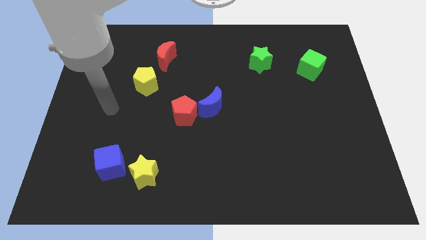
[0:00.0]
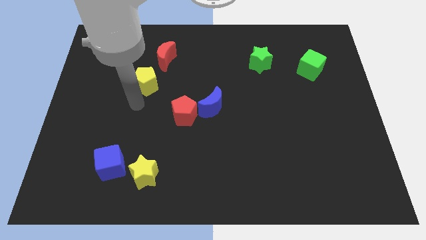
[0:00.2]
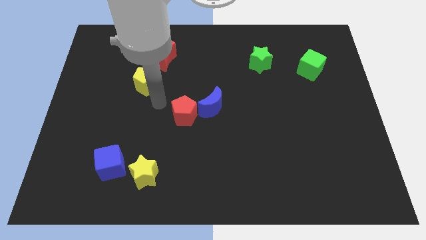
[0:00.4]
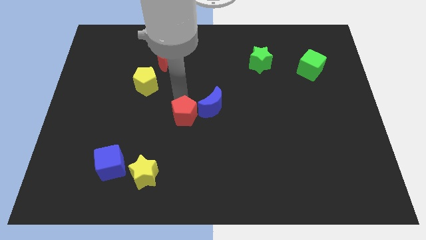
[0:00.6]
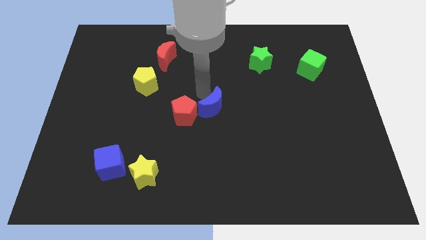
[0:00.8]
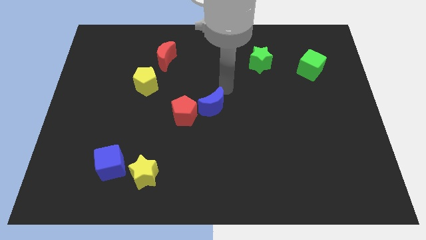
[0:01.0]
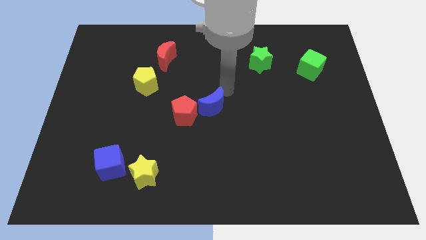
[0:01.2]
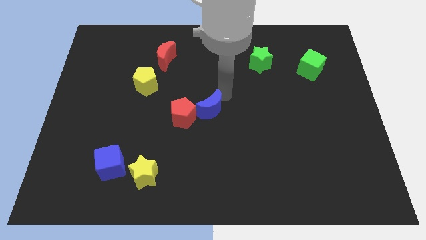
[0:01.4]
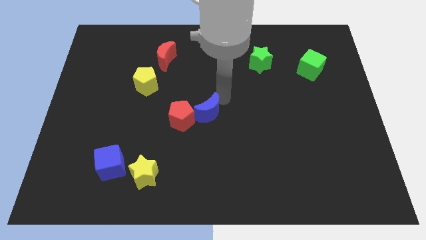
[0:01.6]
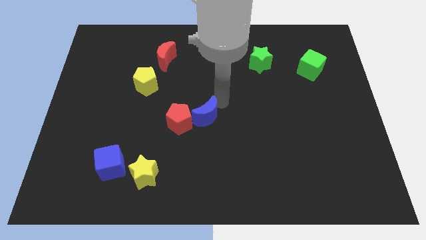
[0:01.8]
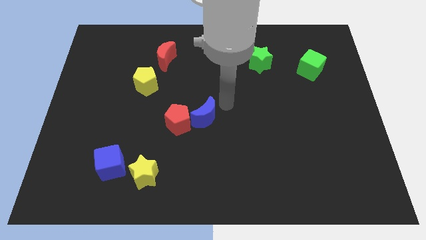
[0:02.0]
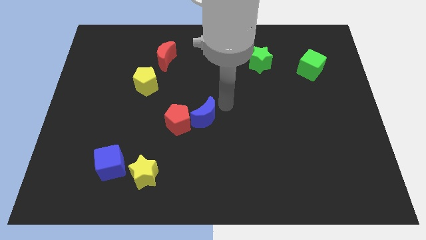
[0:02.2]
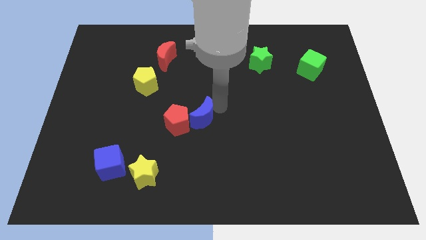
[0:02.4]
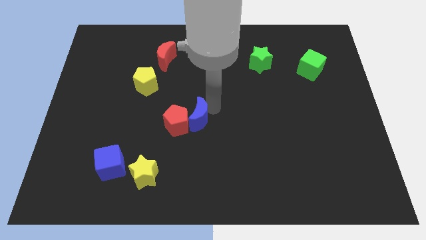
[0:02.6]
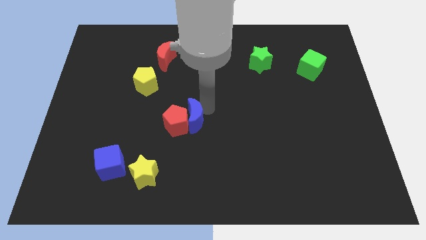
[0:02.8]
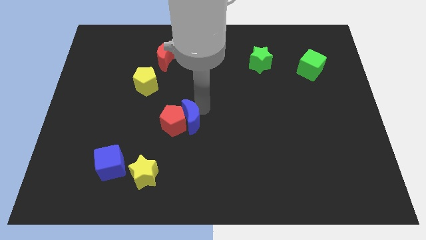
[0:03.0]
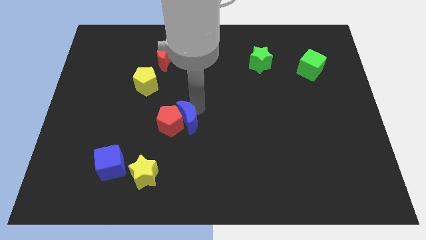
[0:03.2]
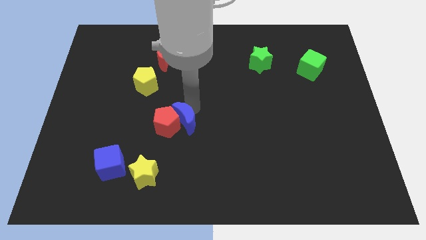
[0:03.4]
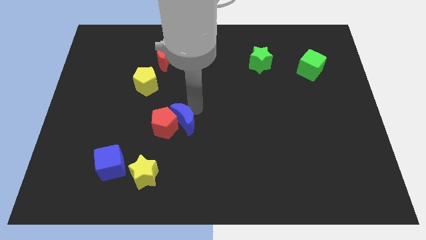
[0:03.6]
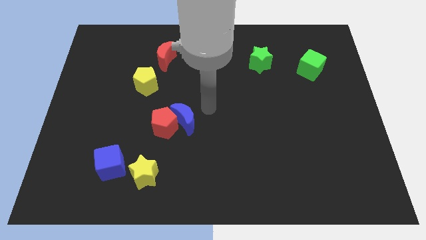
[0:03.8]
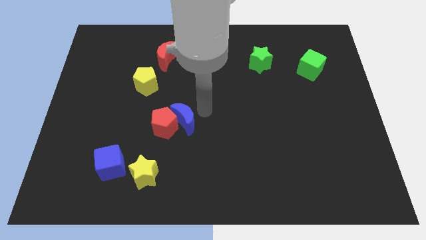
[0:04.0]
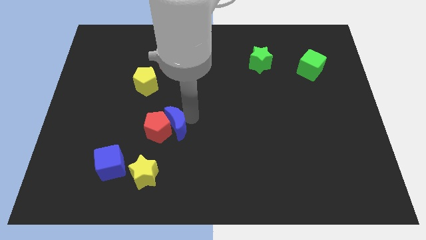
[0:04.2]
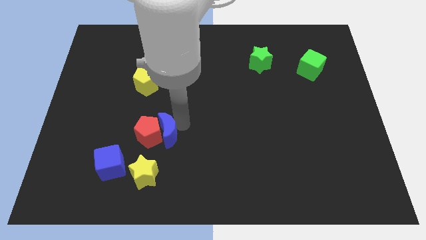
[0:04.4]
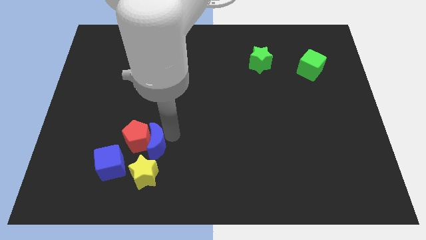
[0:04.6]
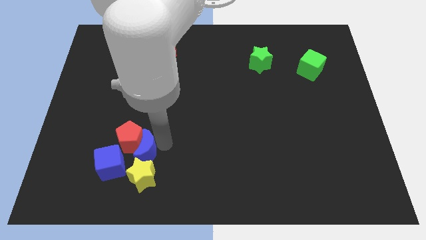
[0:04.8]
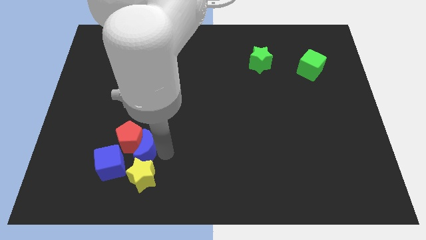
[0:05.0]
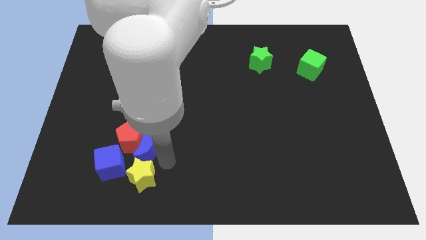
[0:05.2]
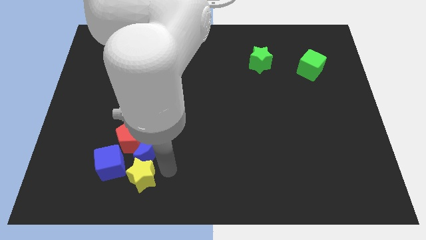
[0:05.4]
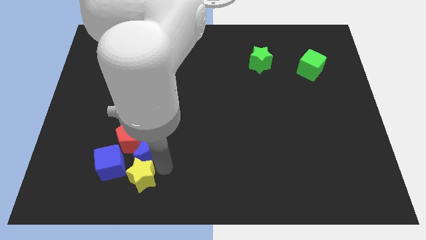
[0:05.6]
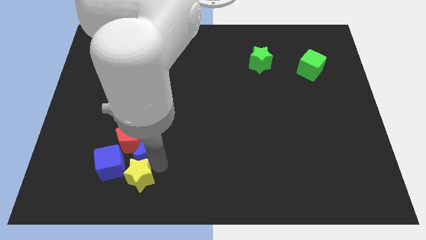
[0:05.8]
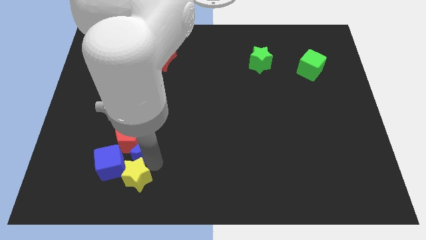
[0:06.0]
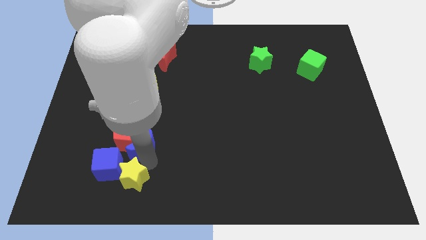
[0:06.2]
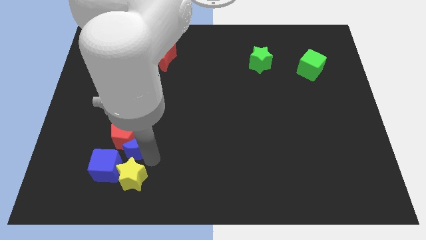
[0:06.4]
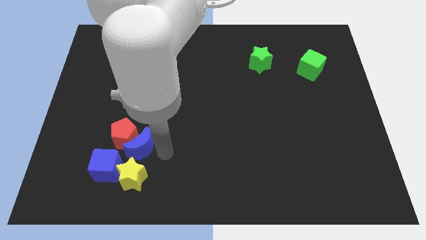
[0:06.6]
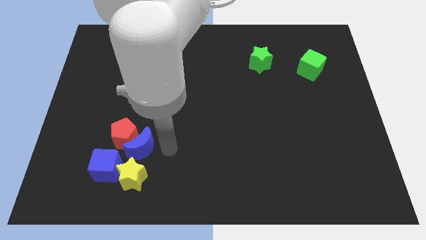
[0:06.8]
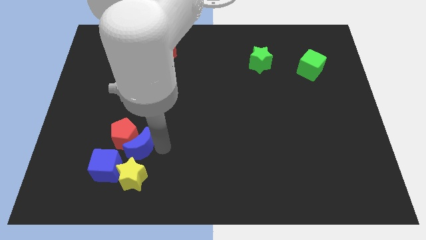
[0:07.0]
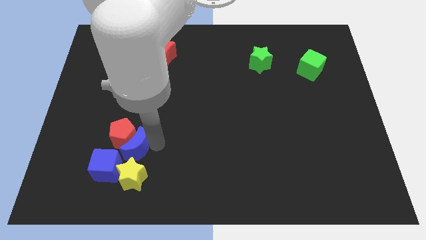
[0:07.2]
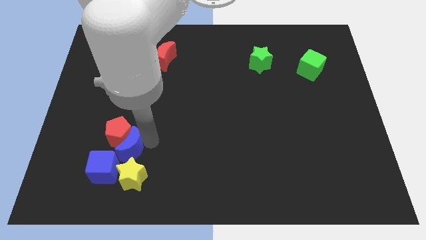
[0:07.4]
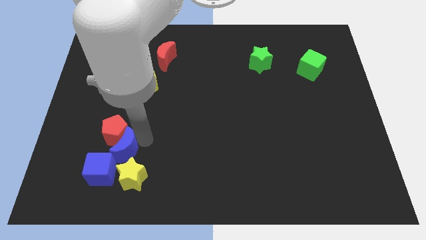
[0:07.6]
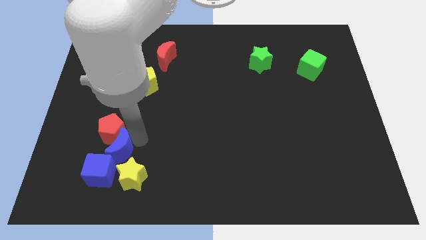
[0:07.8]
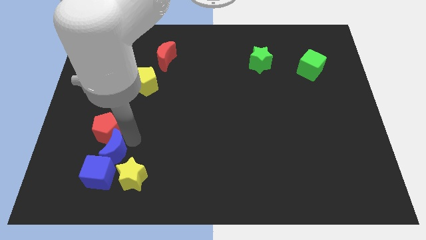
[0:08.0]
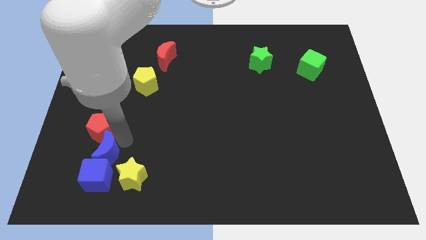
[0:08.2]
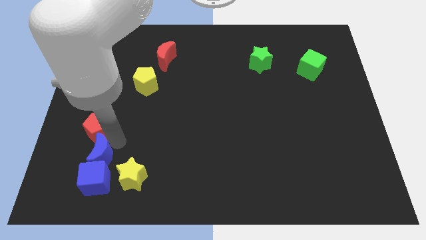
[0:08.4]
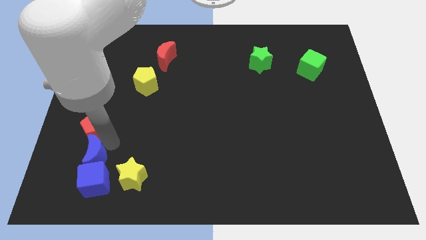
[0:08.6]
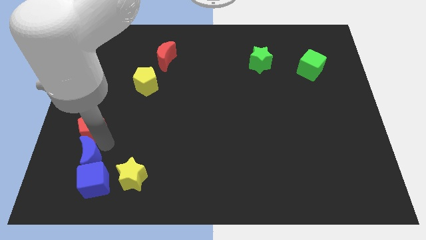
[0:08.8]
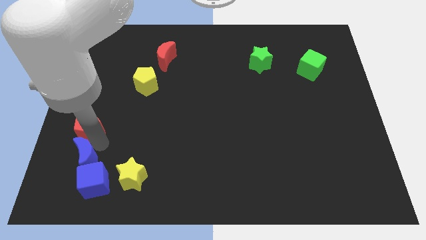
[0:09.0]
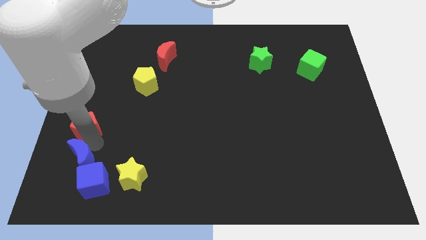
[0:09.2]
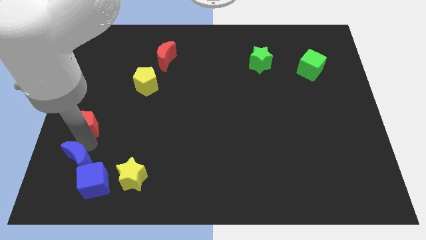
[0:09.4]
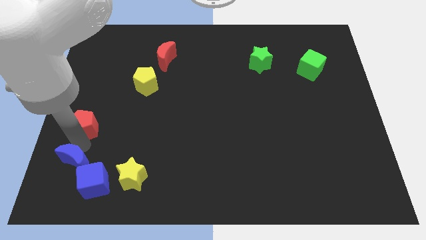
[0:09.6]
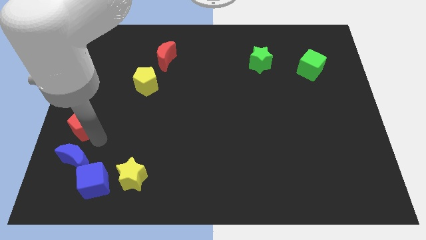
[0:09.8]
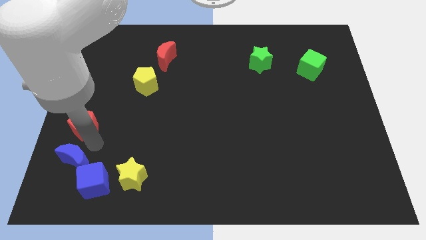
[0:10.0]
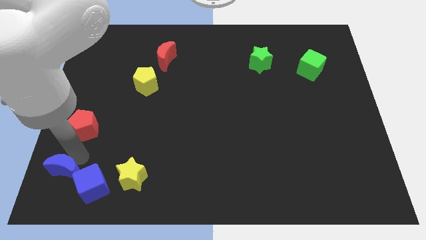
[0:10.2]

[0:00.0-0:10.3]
slide the blue moon to the bottom left corner

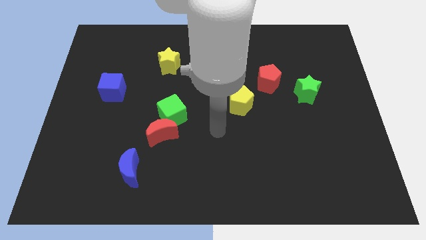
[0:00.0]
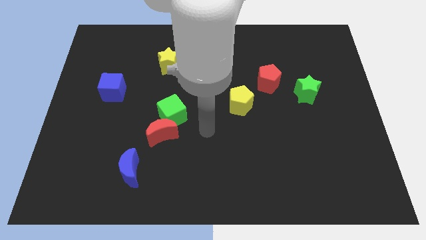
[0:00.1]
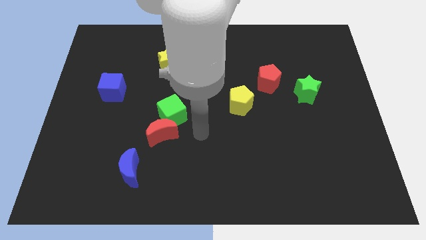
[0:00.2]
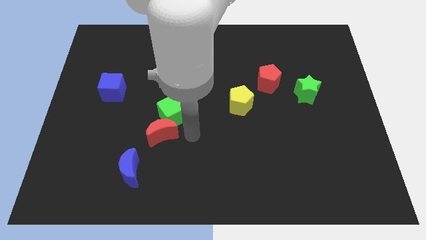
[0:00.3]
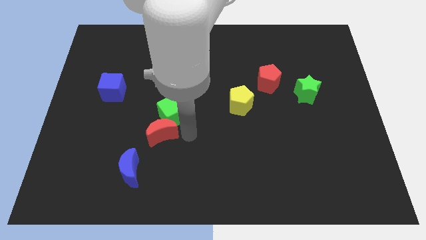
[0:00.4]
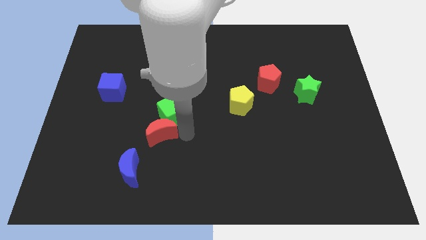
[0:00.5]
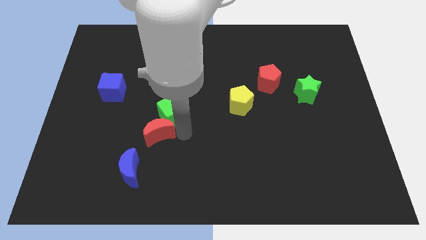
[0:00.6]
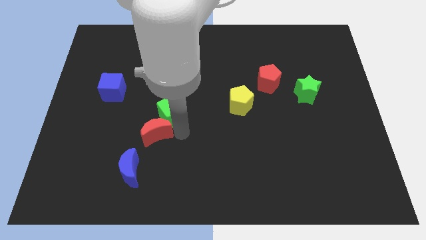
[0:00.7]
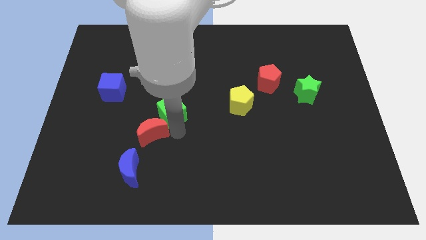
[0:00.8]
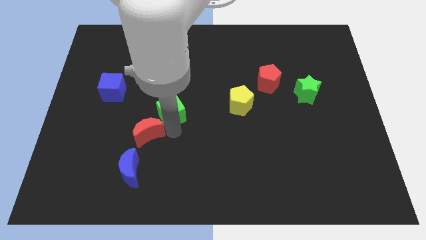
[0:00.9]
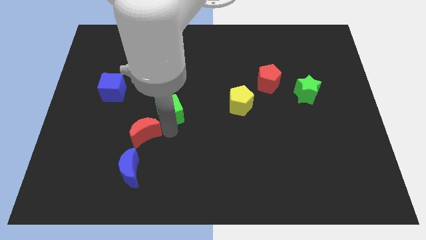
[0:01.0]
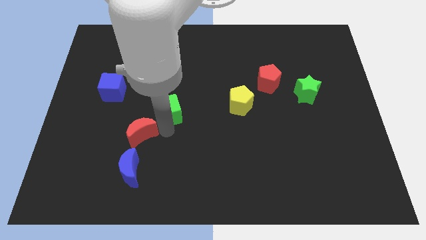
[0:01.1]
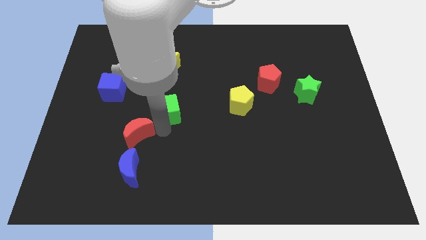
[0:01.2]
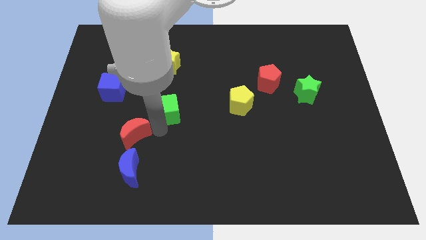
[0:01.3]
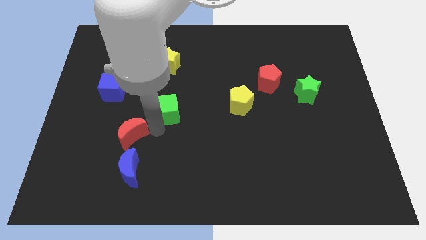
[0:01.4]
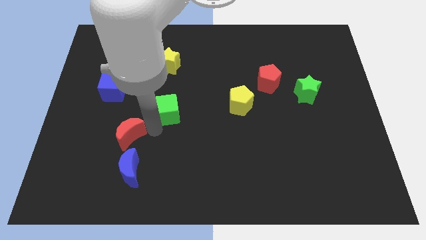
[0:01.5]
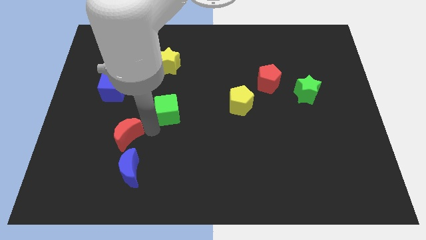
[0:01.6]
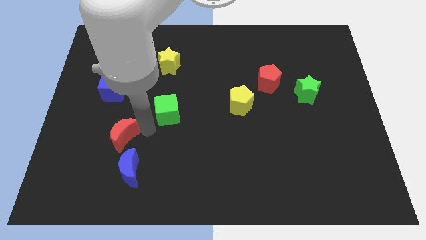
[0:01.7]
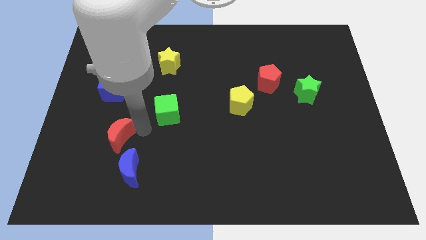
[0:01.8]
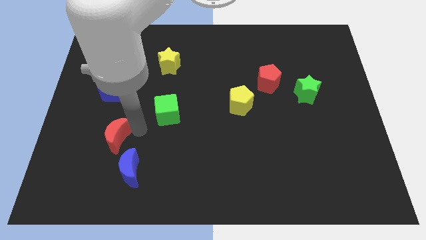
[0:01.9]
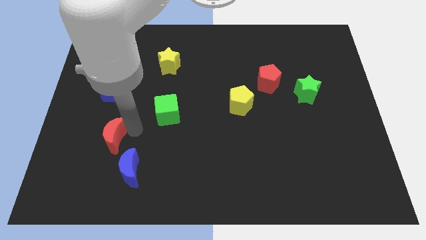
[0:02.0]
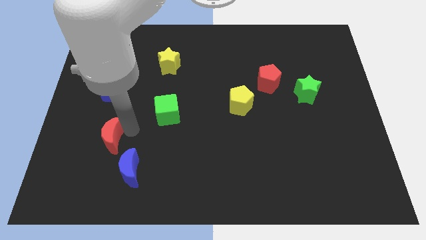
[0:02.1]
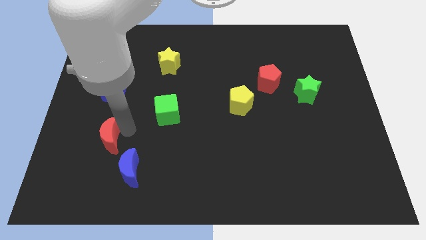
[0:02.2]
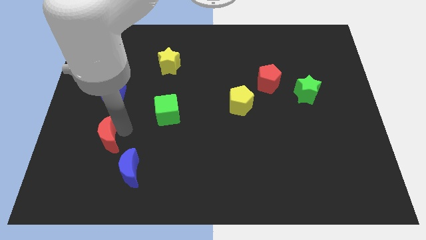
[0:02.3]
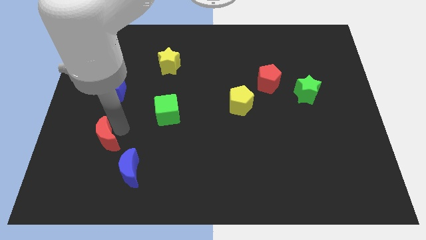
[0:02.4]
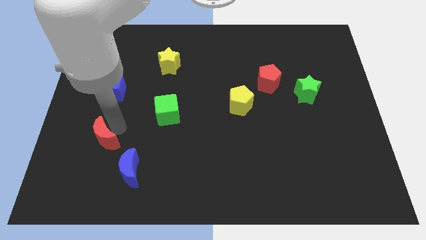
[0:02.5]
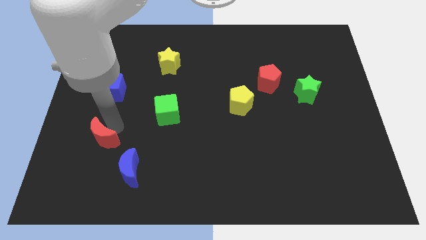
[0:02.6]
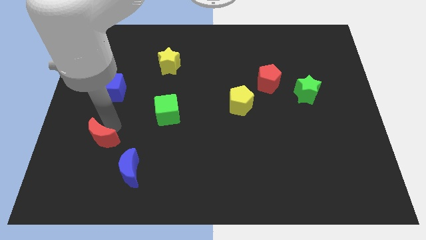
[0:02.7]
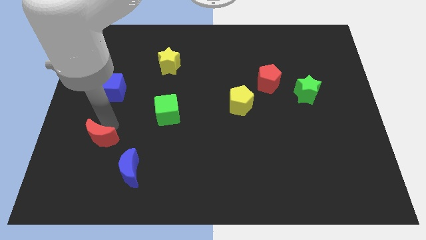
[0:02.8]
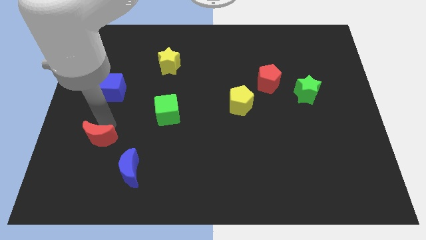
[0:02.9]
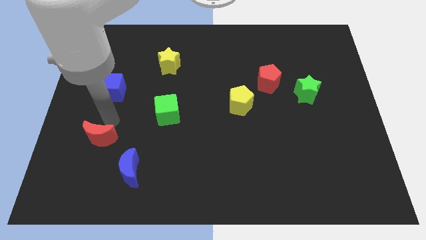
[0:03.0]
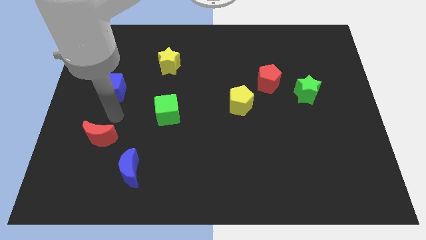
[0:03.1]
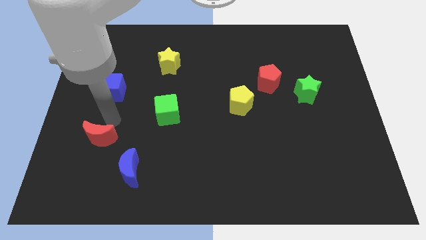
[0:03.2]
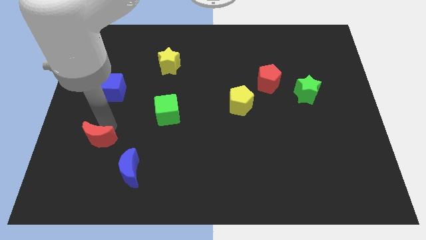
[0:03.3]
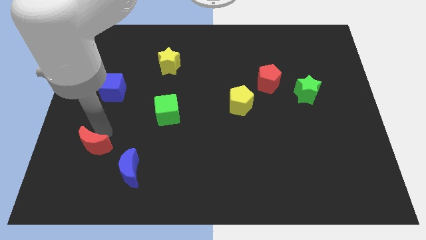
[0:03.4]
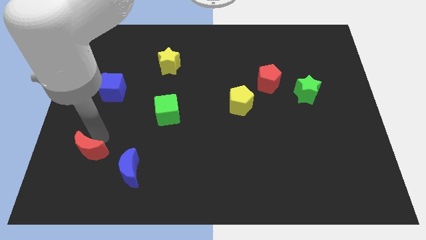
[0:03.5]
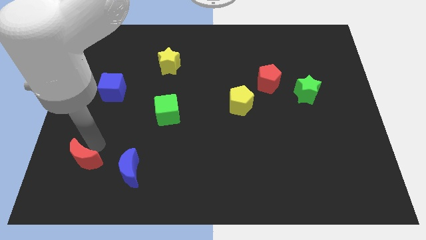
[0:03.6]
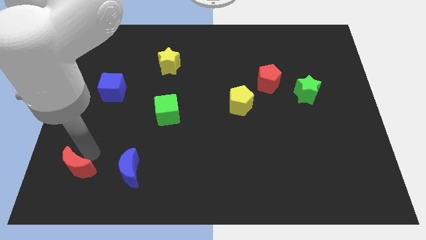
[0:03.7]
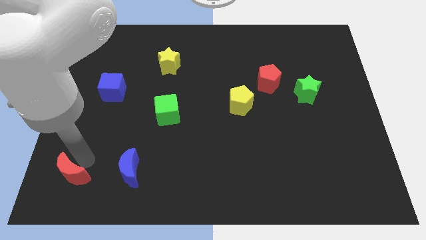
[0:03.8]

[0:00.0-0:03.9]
put the red moon to the bottom left of the board
